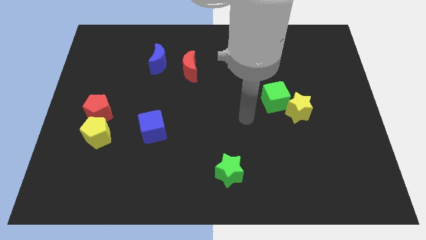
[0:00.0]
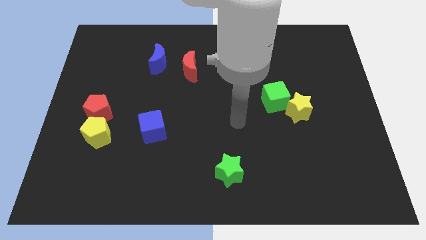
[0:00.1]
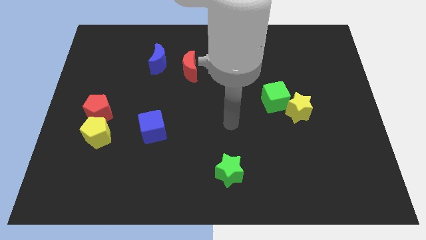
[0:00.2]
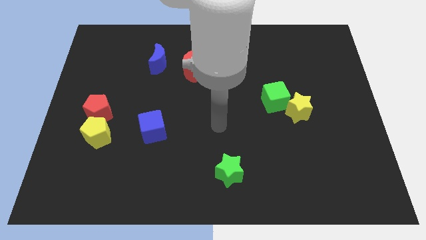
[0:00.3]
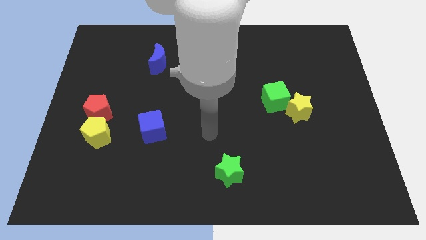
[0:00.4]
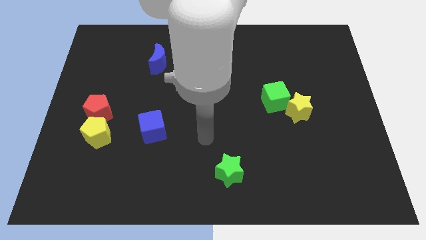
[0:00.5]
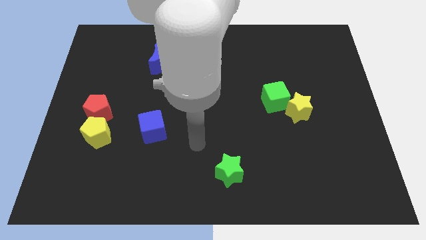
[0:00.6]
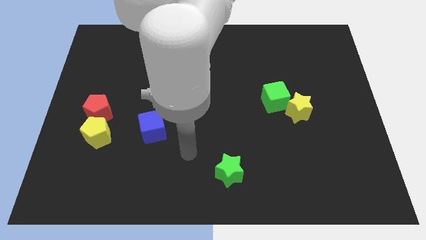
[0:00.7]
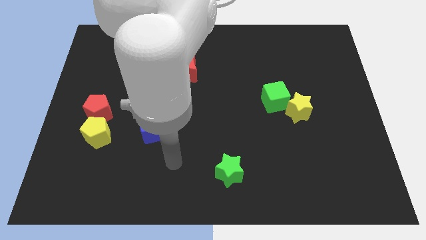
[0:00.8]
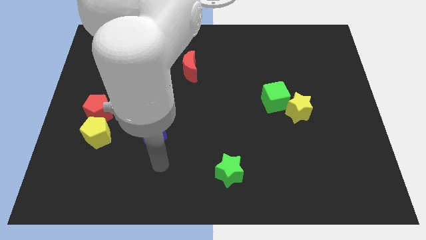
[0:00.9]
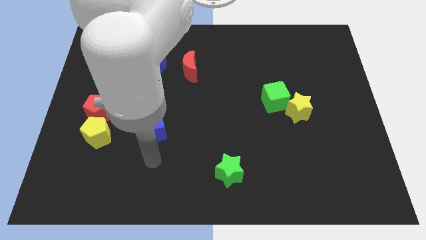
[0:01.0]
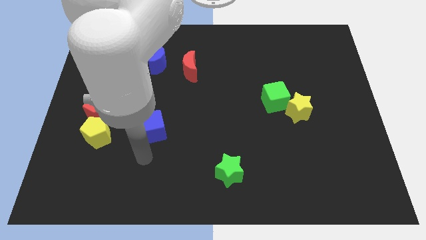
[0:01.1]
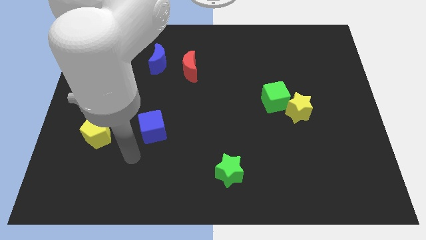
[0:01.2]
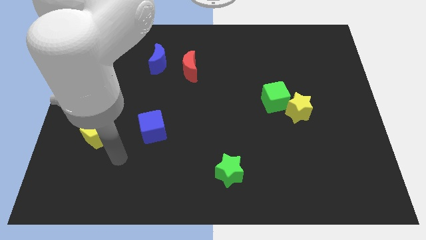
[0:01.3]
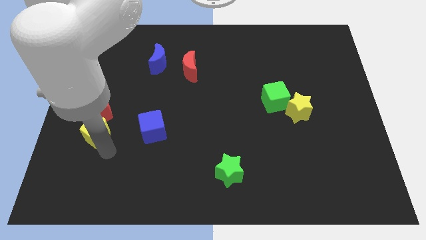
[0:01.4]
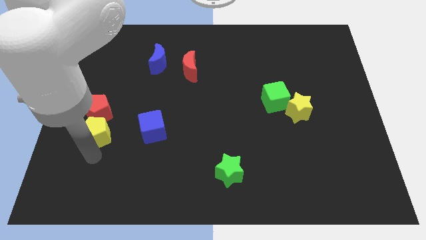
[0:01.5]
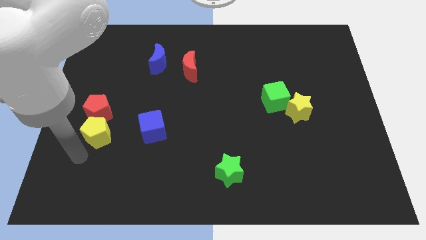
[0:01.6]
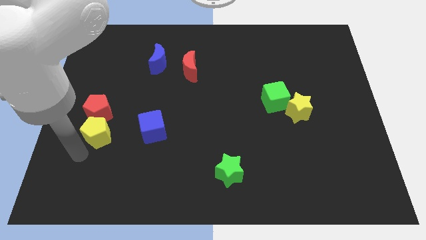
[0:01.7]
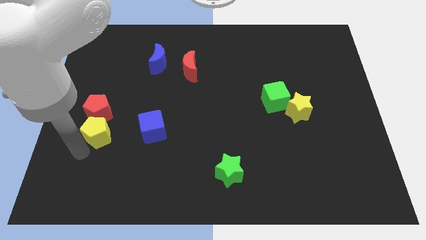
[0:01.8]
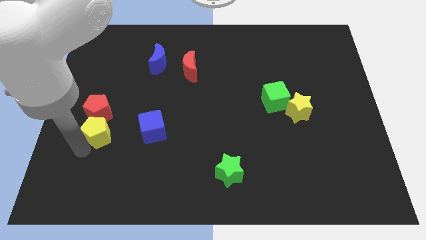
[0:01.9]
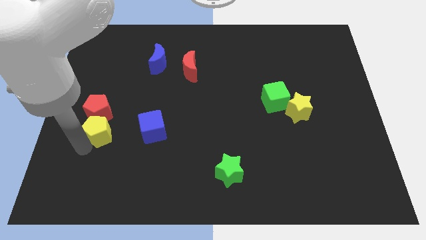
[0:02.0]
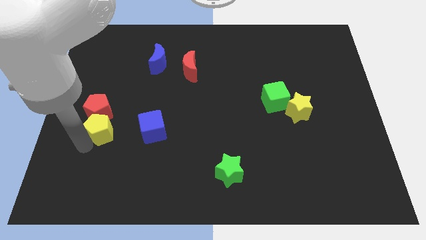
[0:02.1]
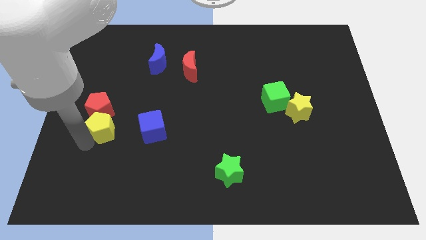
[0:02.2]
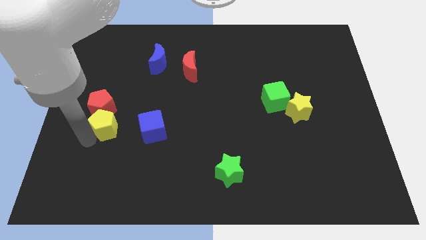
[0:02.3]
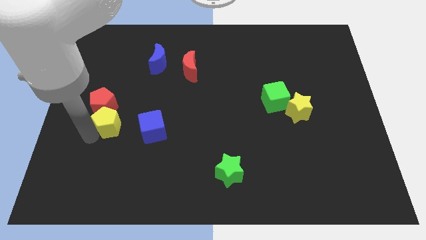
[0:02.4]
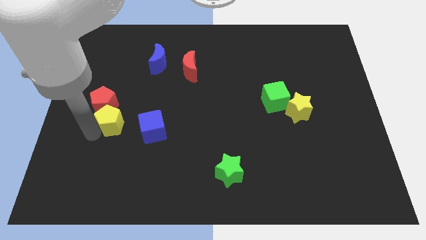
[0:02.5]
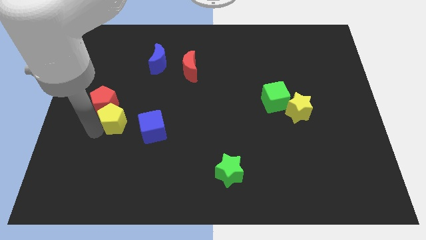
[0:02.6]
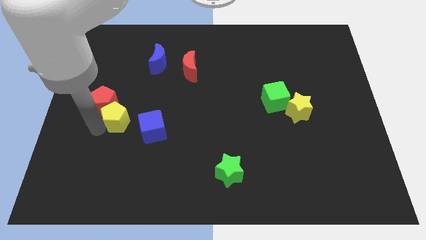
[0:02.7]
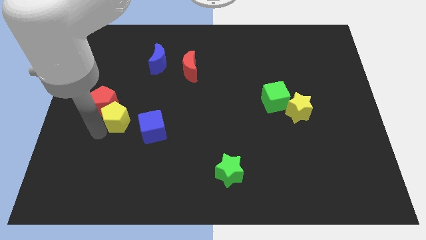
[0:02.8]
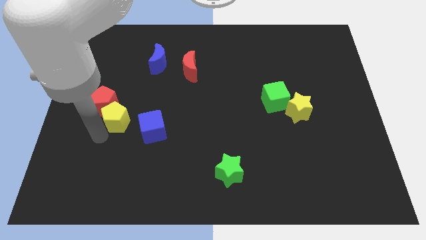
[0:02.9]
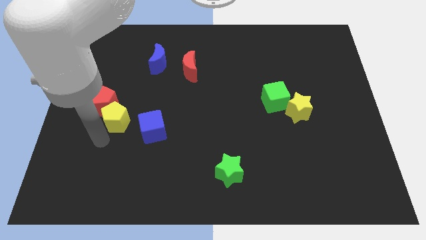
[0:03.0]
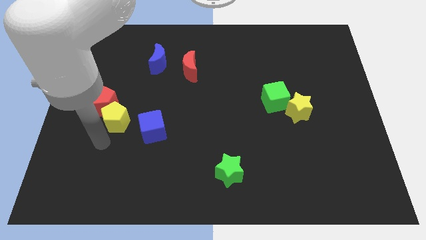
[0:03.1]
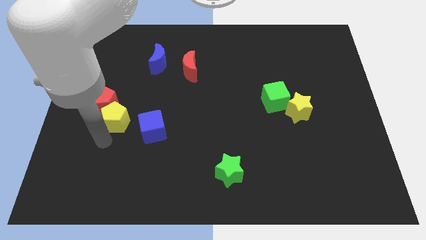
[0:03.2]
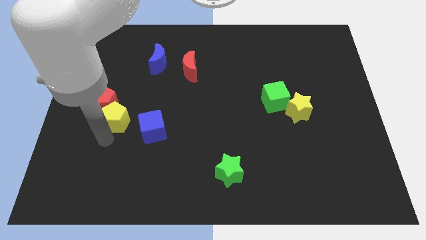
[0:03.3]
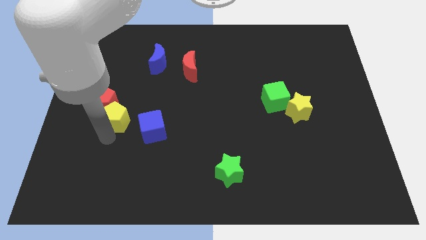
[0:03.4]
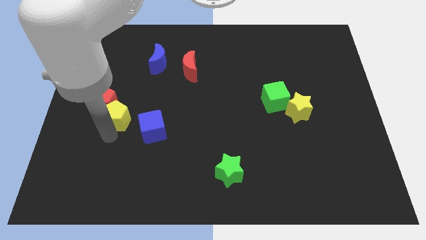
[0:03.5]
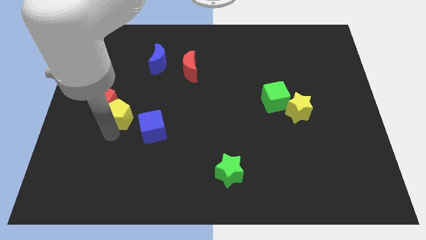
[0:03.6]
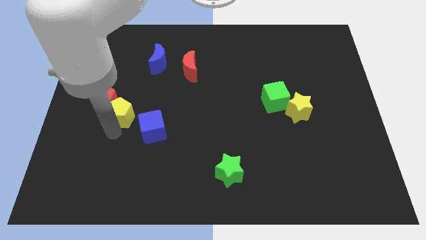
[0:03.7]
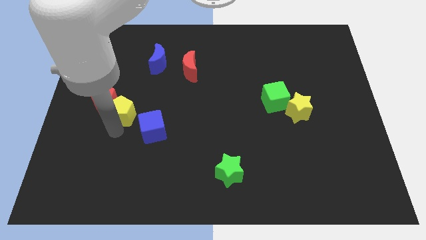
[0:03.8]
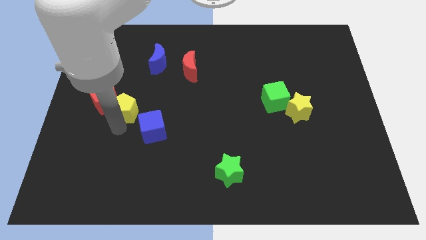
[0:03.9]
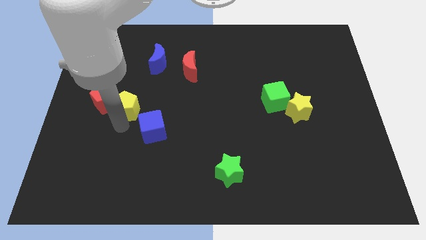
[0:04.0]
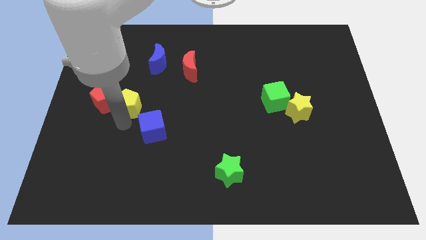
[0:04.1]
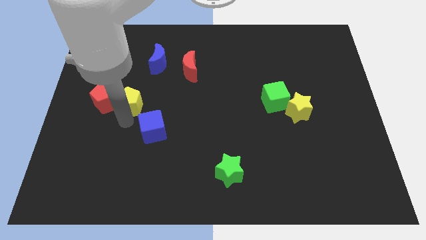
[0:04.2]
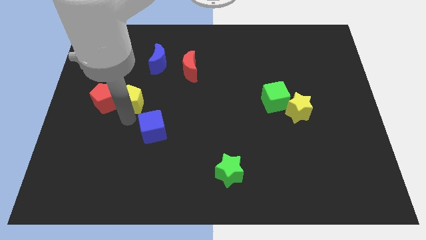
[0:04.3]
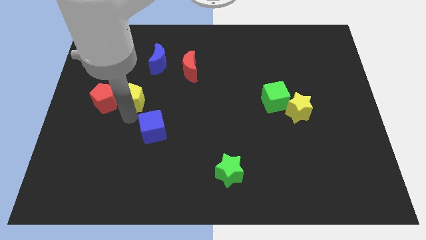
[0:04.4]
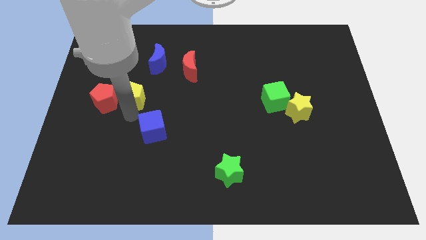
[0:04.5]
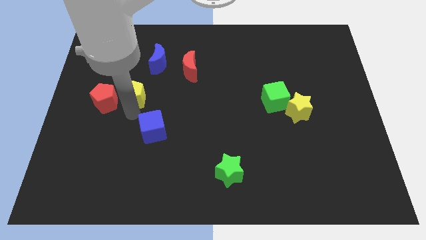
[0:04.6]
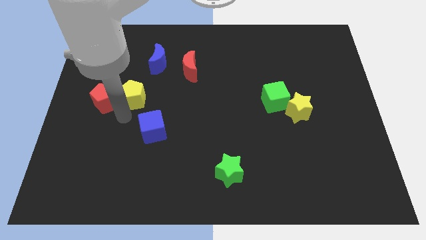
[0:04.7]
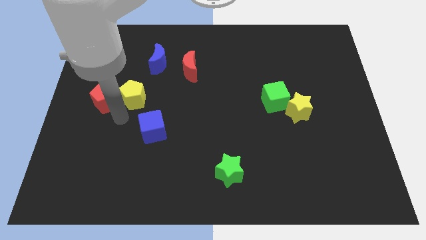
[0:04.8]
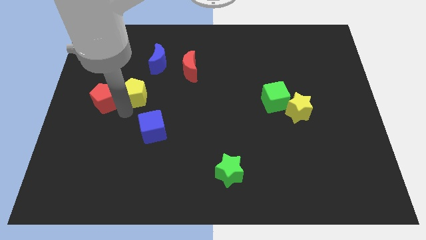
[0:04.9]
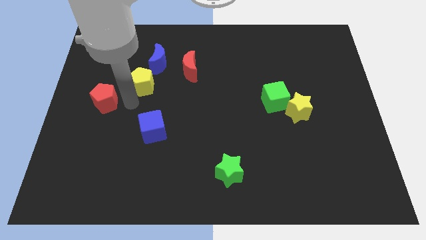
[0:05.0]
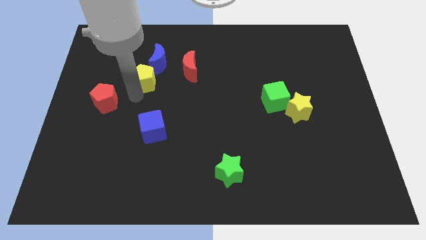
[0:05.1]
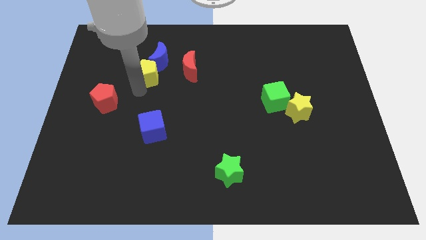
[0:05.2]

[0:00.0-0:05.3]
push the yellow pentagon next to the blue moon

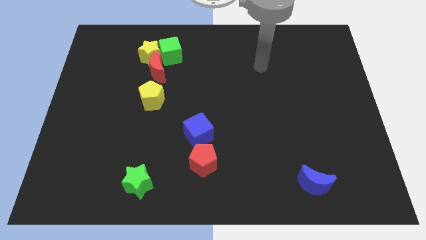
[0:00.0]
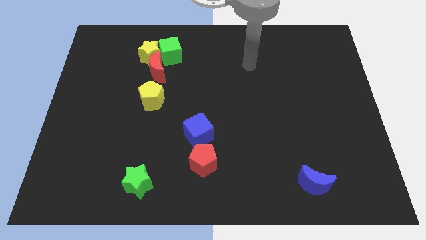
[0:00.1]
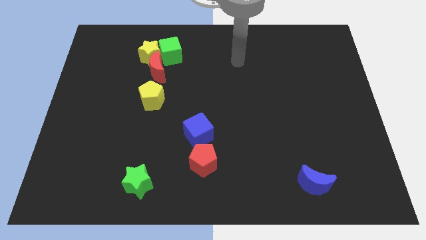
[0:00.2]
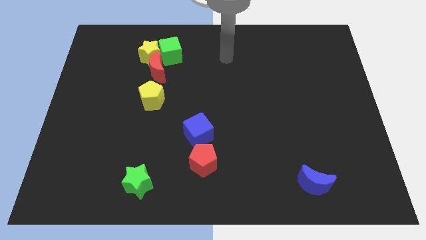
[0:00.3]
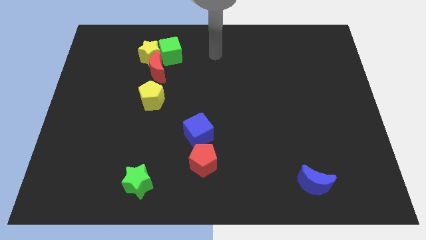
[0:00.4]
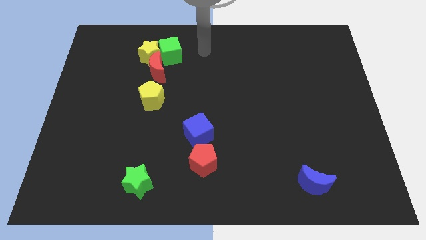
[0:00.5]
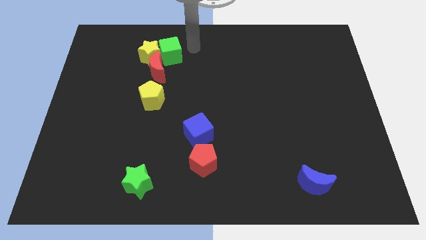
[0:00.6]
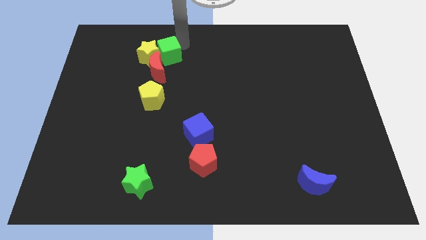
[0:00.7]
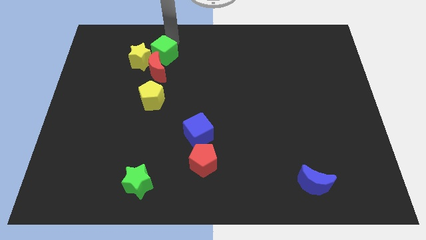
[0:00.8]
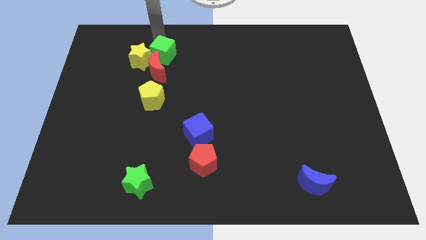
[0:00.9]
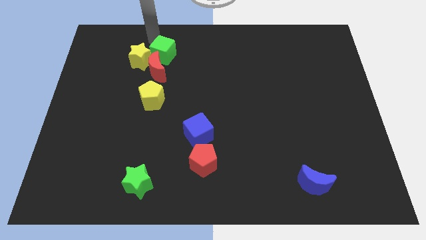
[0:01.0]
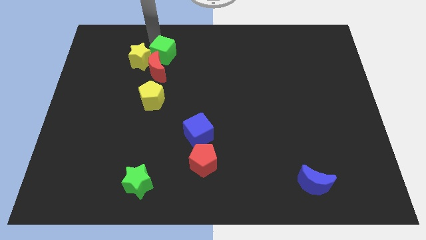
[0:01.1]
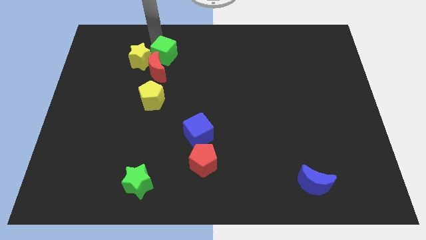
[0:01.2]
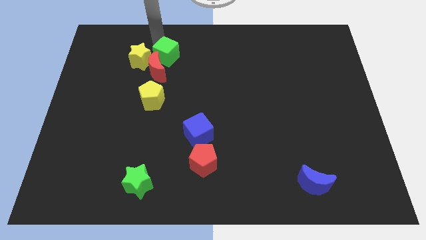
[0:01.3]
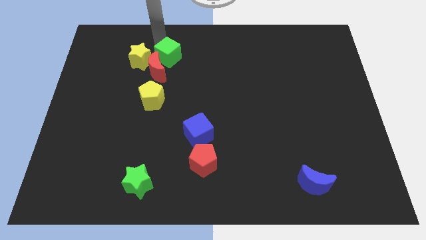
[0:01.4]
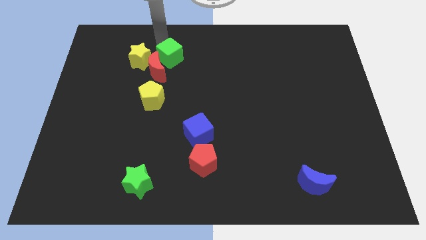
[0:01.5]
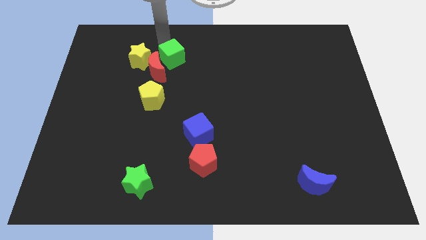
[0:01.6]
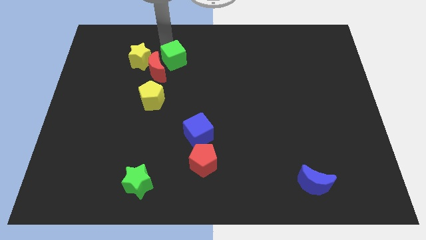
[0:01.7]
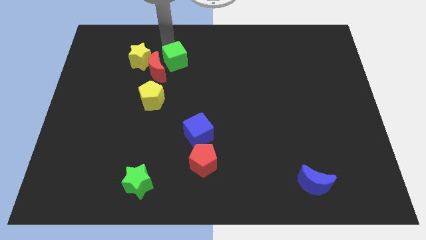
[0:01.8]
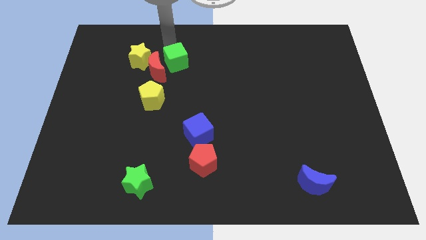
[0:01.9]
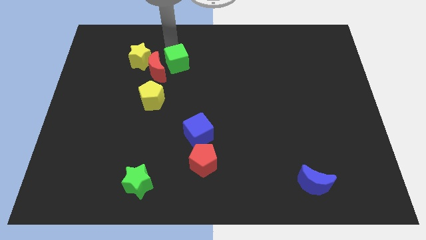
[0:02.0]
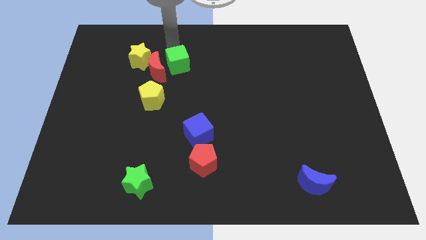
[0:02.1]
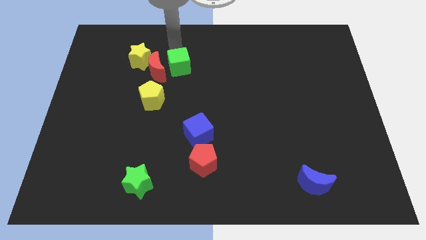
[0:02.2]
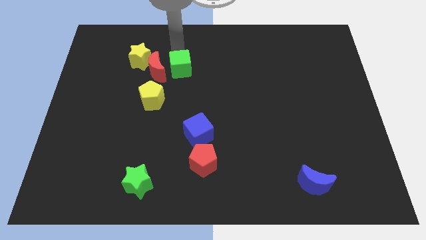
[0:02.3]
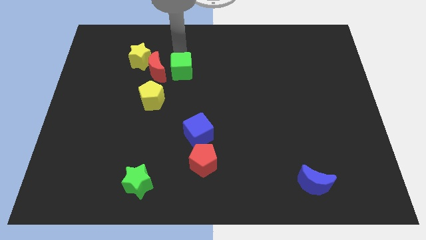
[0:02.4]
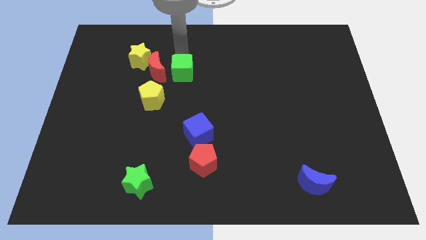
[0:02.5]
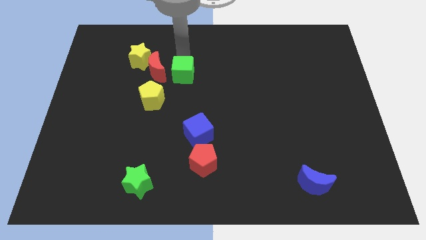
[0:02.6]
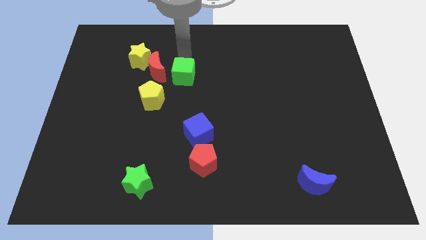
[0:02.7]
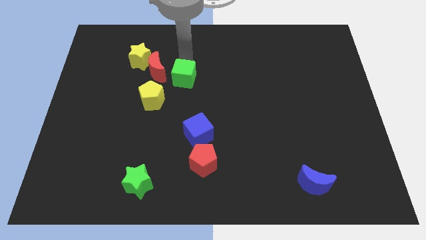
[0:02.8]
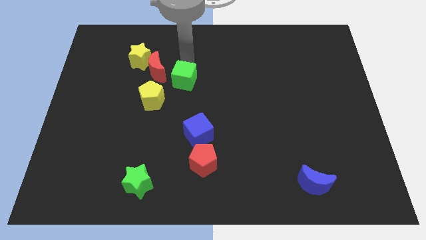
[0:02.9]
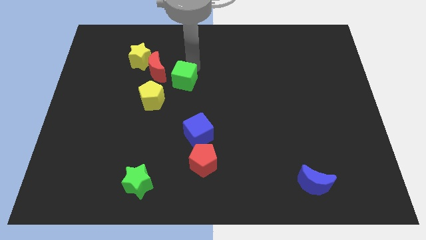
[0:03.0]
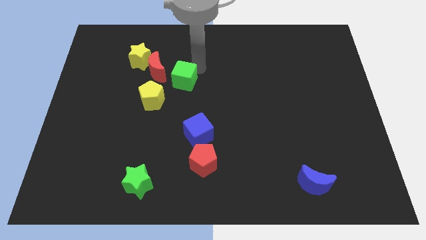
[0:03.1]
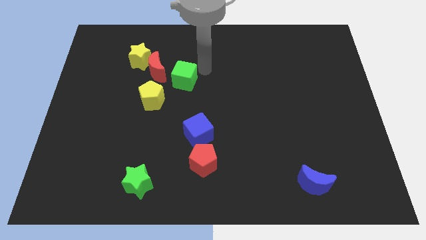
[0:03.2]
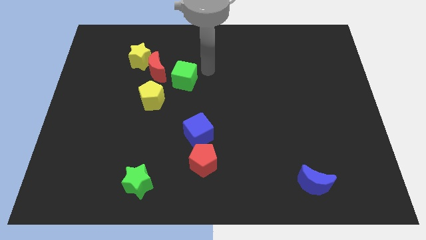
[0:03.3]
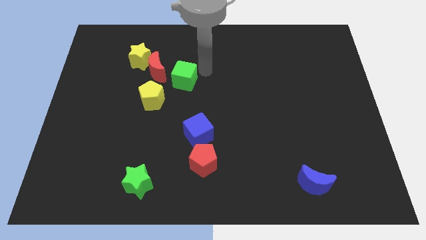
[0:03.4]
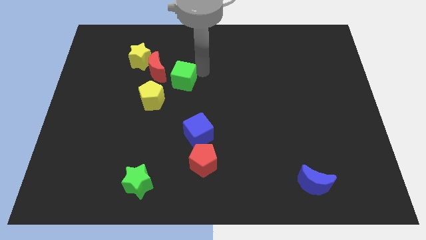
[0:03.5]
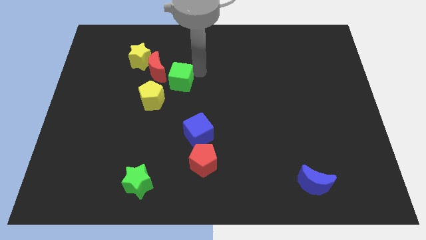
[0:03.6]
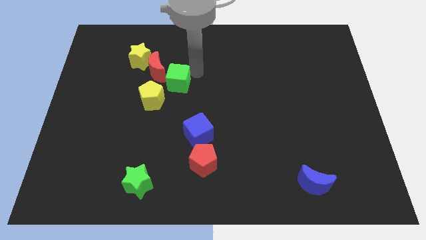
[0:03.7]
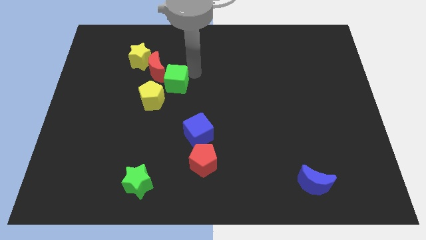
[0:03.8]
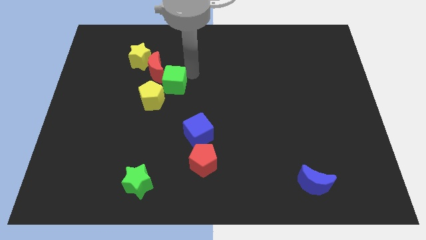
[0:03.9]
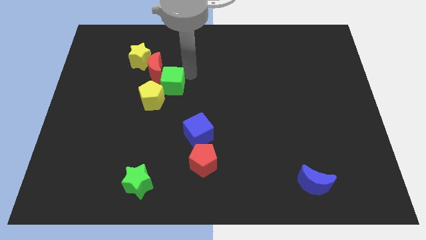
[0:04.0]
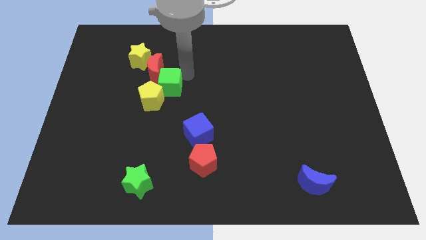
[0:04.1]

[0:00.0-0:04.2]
push the green cube close to the yellow pentagon
